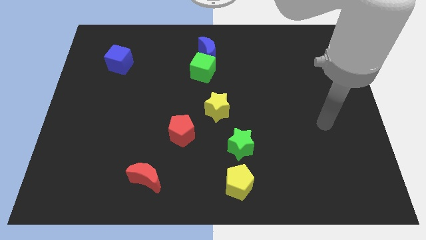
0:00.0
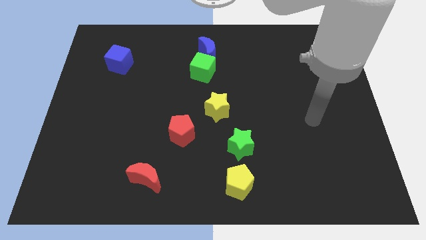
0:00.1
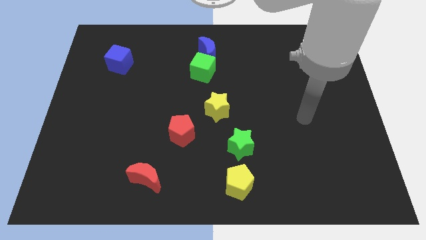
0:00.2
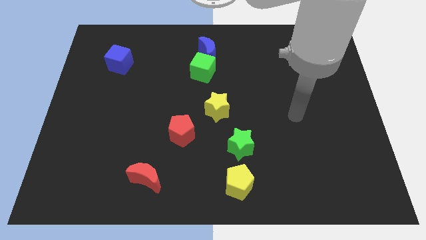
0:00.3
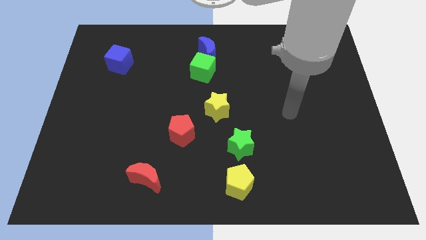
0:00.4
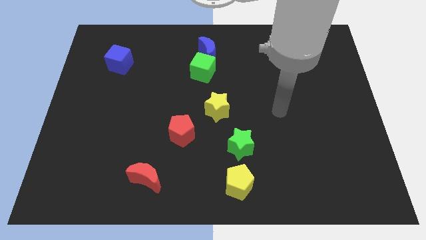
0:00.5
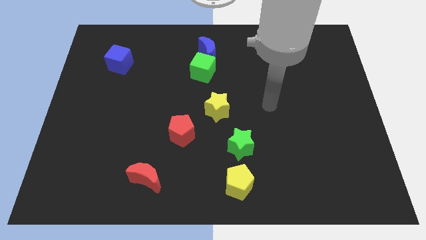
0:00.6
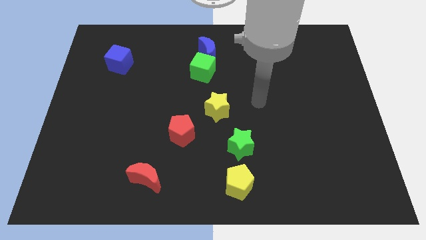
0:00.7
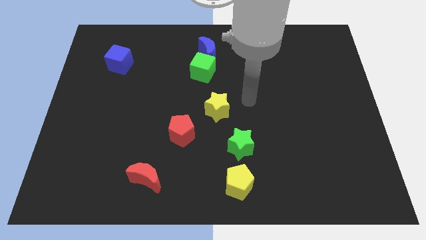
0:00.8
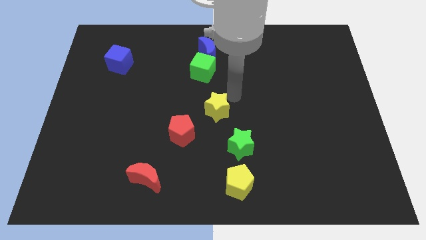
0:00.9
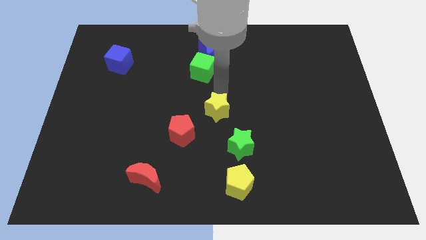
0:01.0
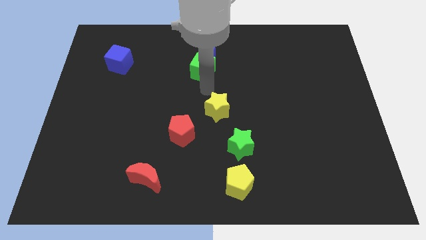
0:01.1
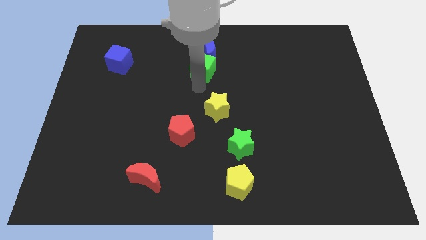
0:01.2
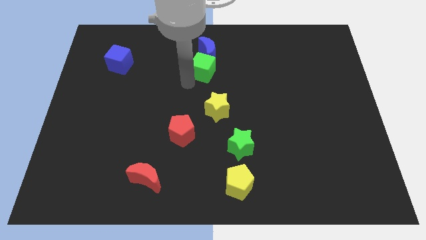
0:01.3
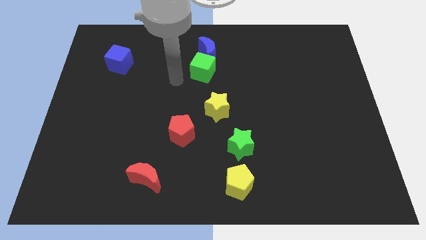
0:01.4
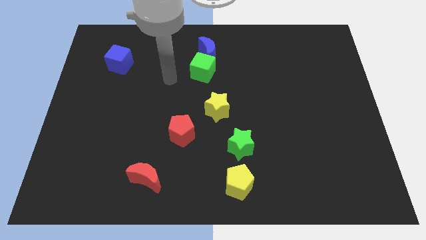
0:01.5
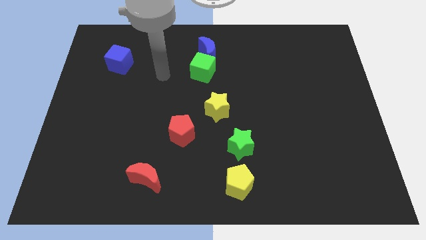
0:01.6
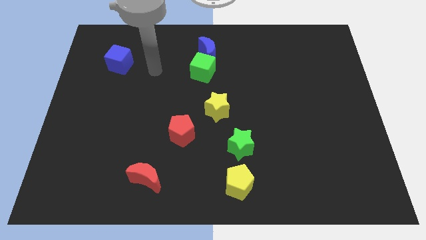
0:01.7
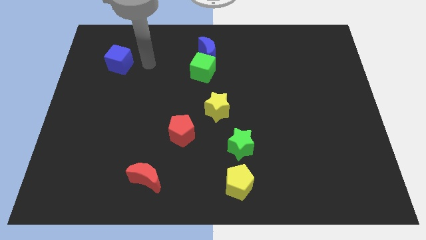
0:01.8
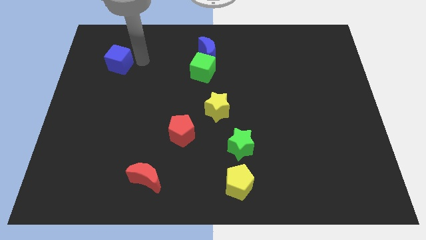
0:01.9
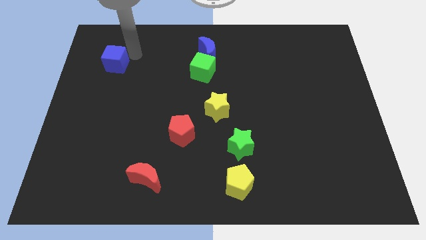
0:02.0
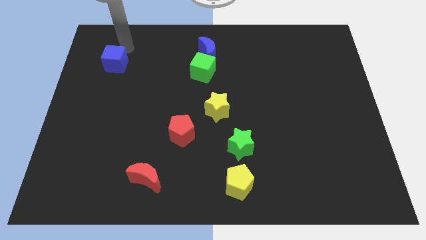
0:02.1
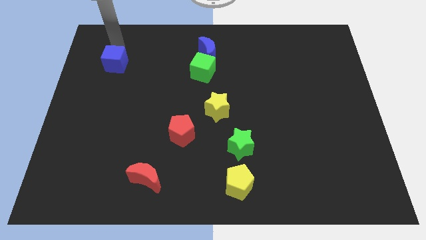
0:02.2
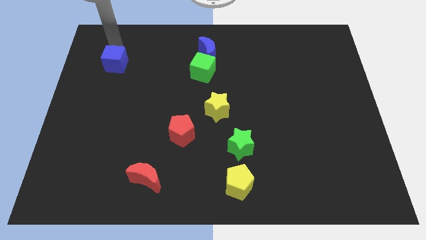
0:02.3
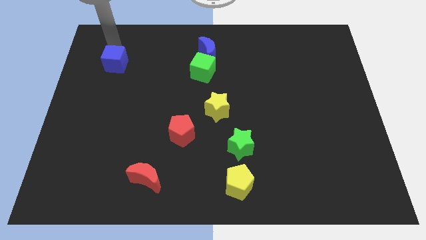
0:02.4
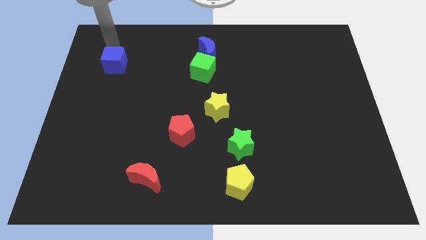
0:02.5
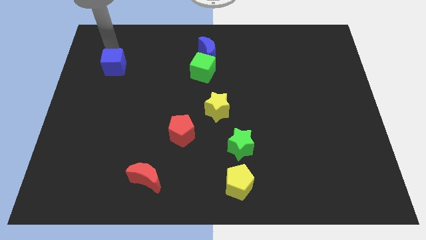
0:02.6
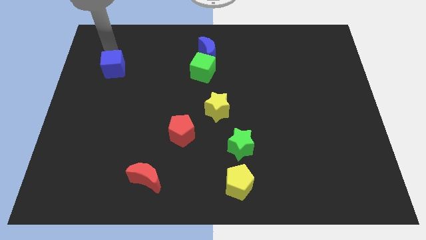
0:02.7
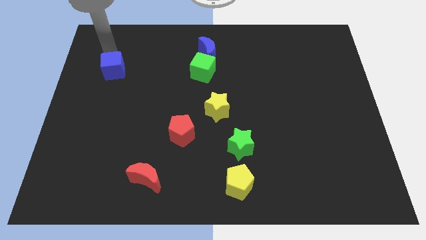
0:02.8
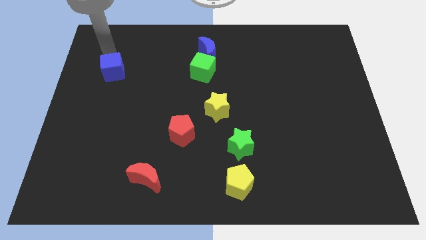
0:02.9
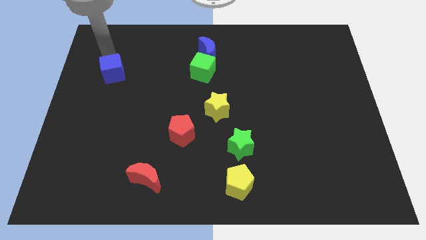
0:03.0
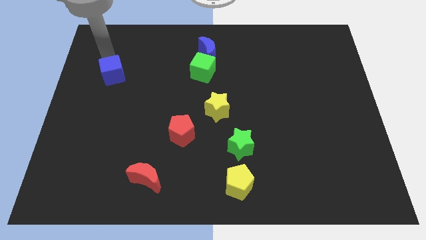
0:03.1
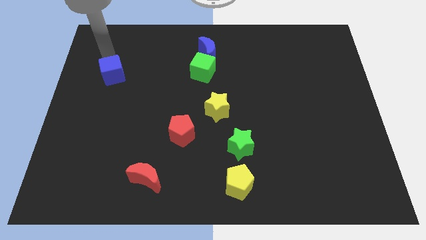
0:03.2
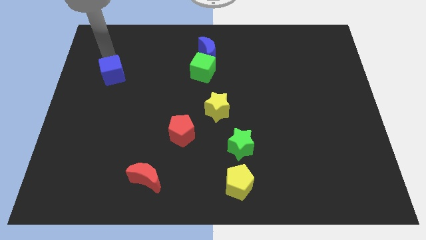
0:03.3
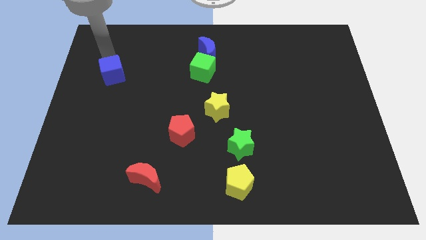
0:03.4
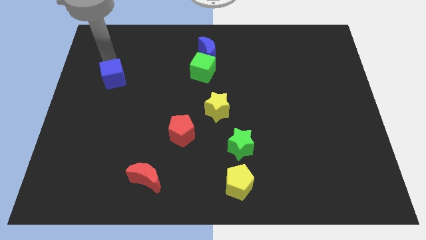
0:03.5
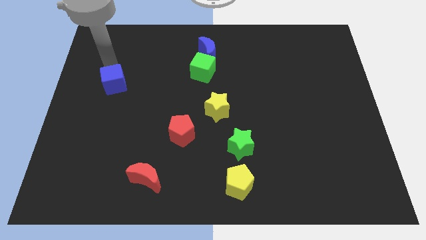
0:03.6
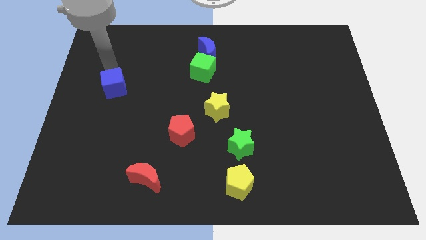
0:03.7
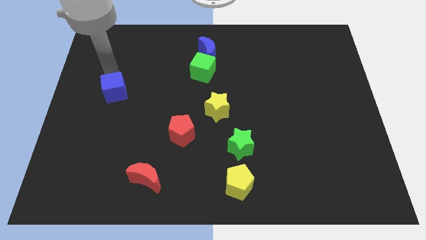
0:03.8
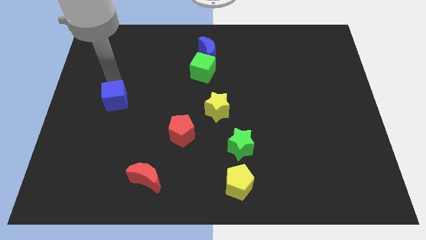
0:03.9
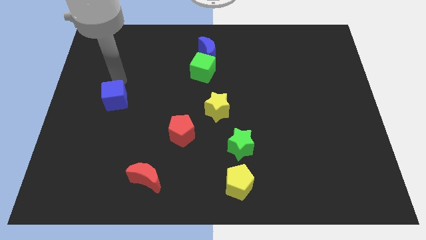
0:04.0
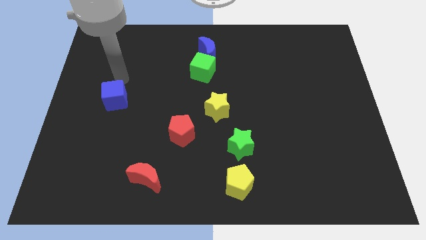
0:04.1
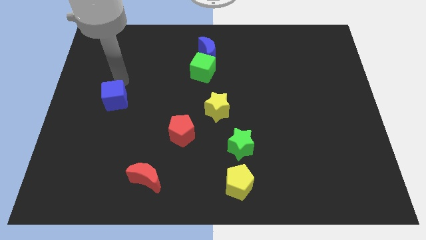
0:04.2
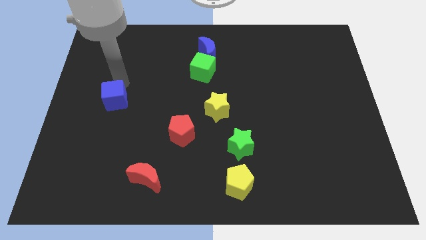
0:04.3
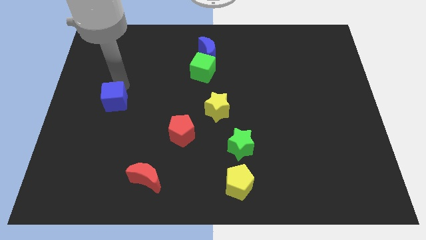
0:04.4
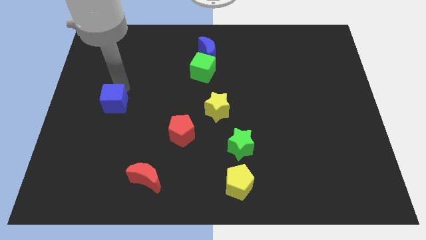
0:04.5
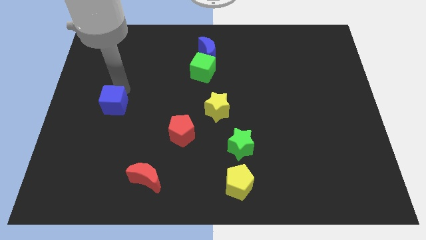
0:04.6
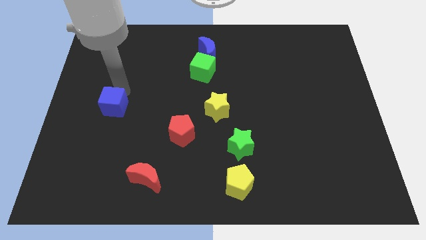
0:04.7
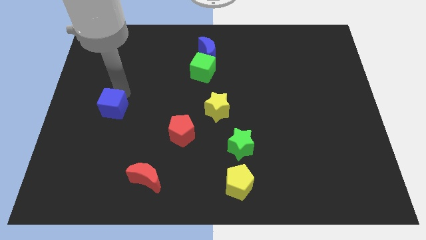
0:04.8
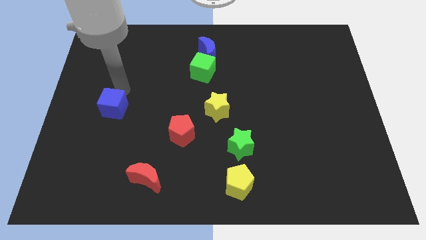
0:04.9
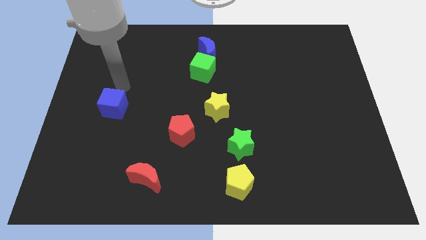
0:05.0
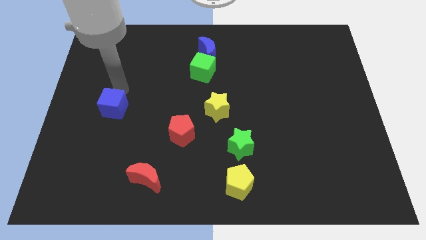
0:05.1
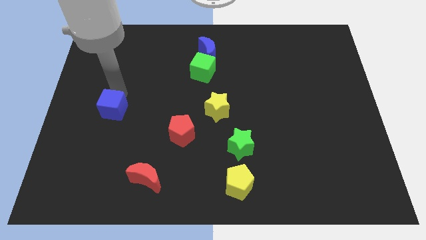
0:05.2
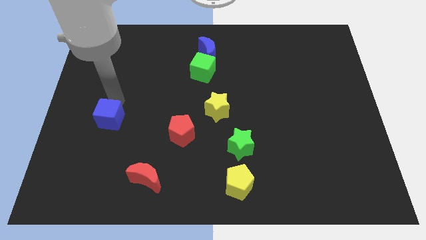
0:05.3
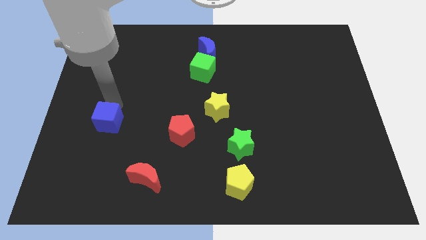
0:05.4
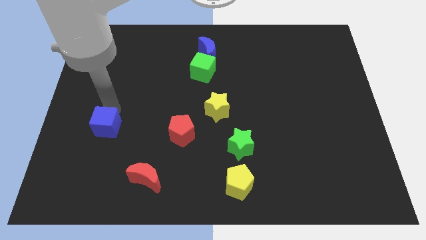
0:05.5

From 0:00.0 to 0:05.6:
push the blue cube down

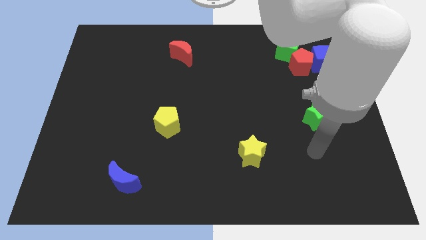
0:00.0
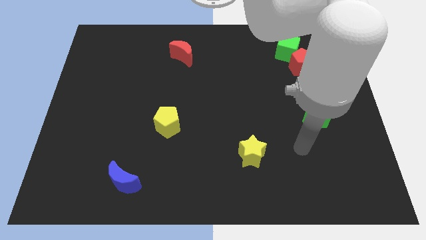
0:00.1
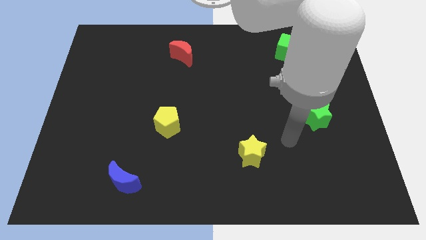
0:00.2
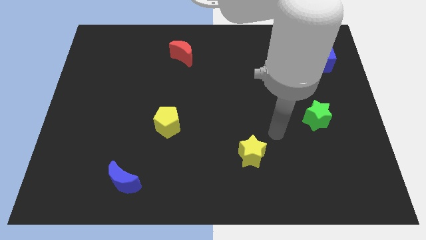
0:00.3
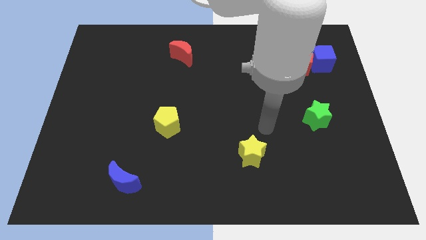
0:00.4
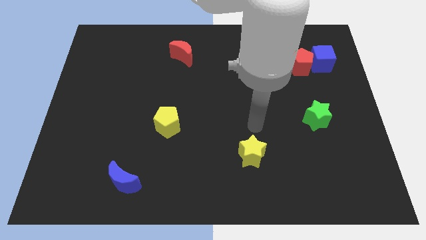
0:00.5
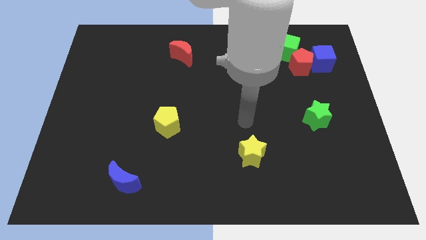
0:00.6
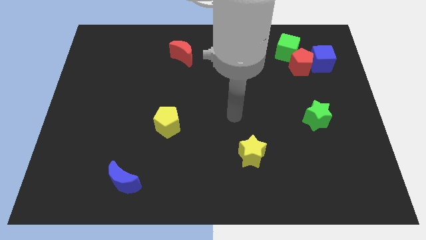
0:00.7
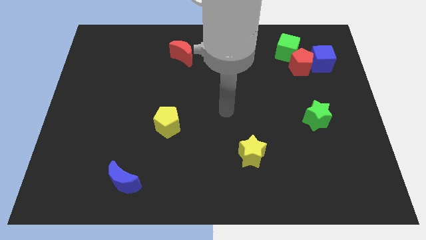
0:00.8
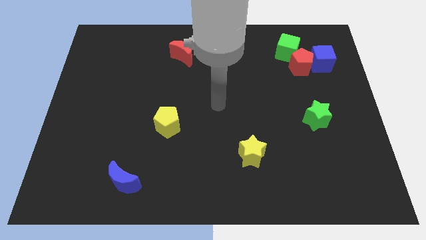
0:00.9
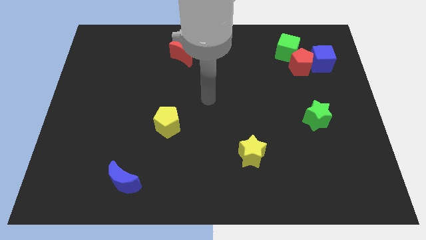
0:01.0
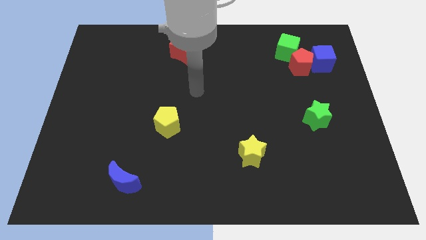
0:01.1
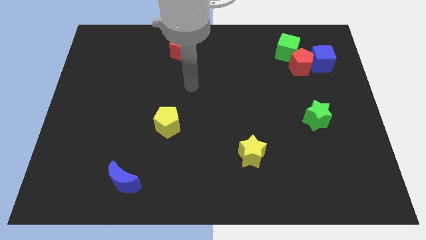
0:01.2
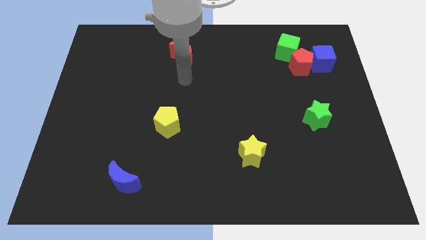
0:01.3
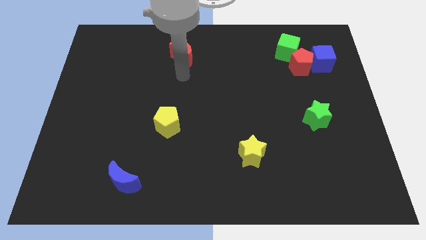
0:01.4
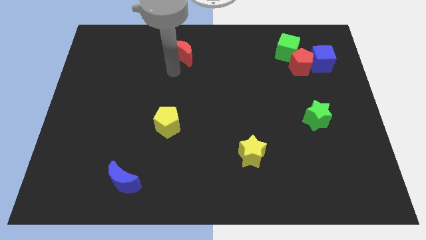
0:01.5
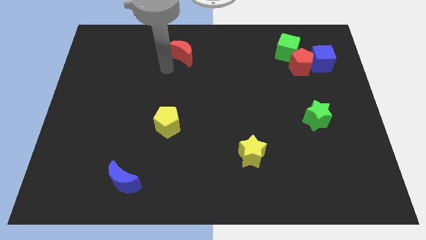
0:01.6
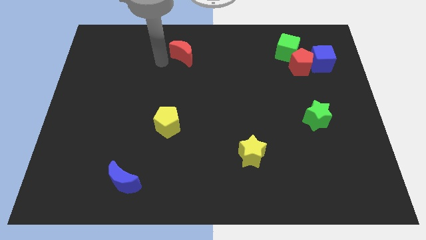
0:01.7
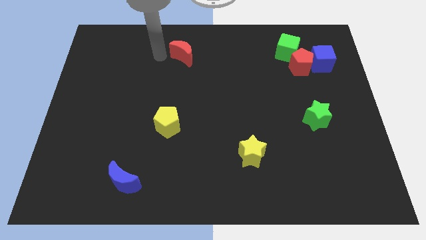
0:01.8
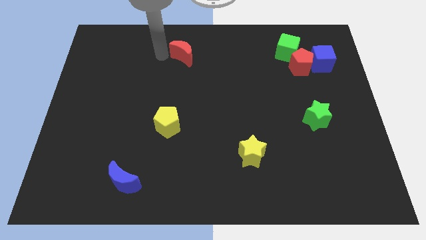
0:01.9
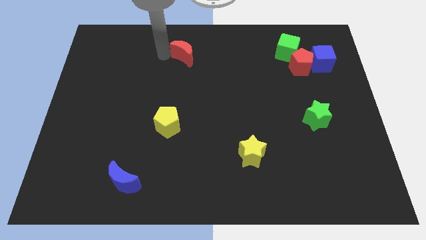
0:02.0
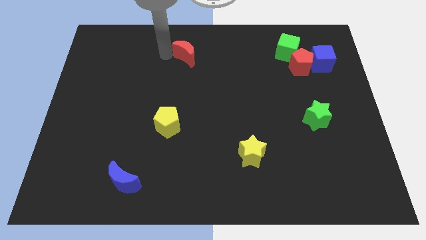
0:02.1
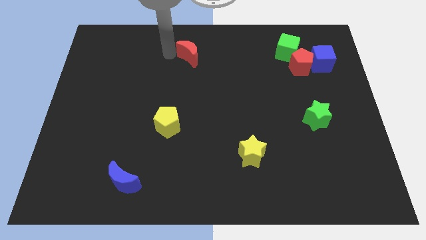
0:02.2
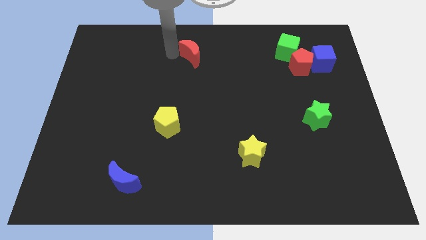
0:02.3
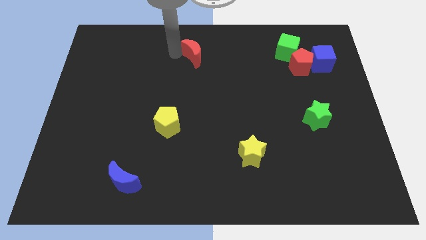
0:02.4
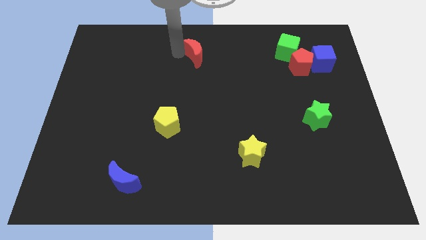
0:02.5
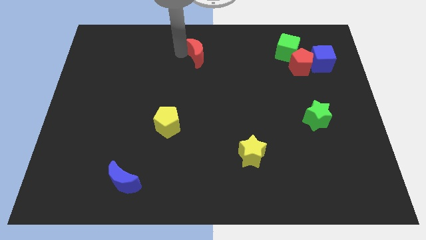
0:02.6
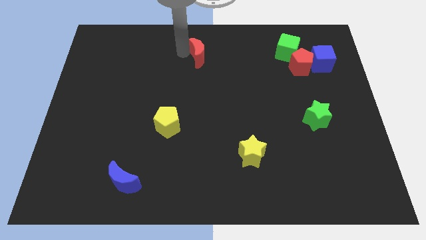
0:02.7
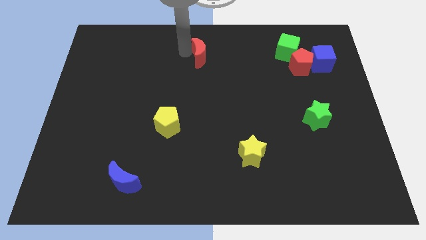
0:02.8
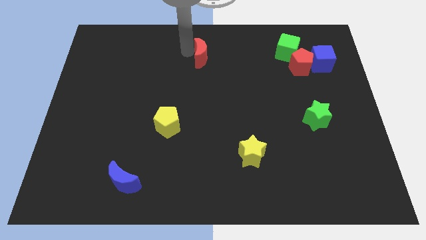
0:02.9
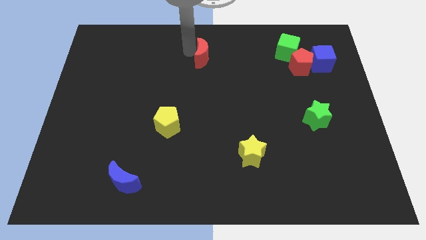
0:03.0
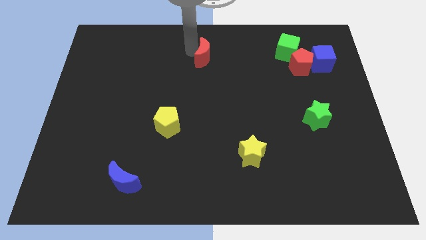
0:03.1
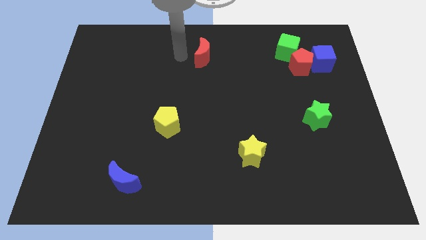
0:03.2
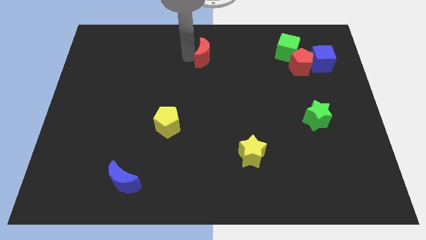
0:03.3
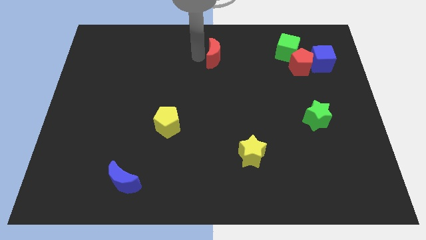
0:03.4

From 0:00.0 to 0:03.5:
move the red moon somewhat right
